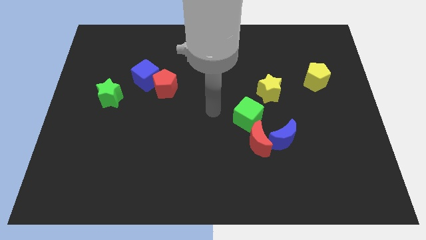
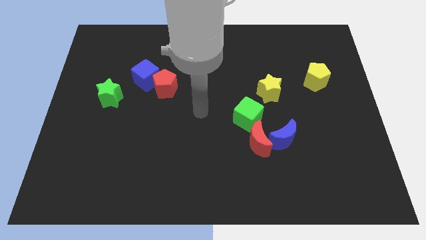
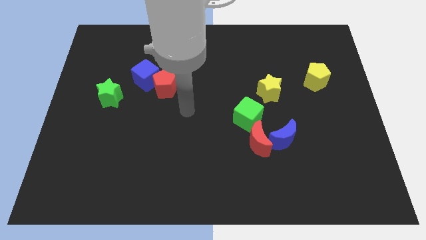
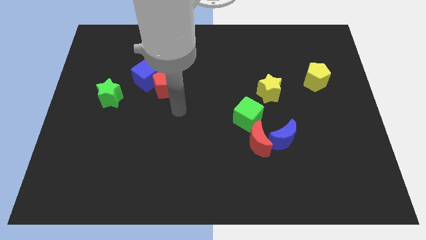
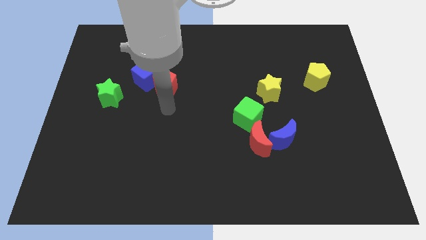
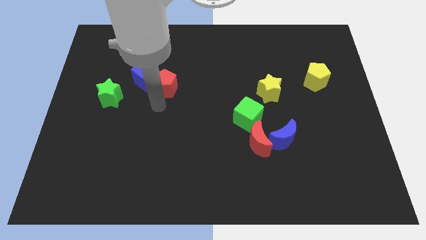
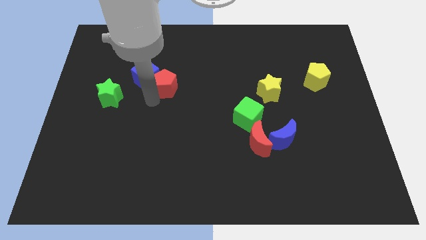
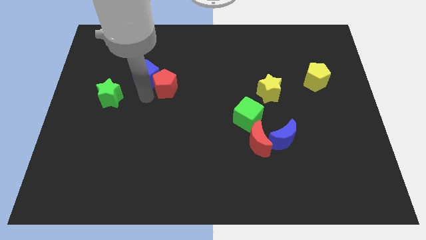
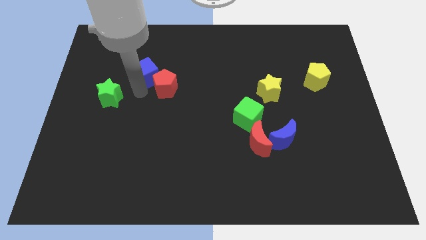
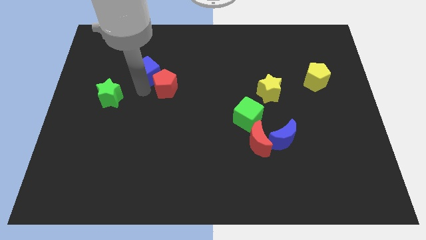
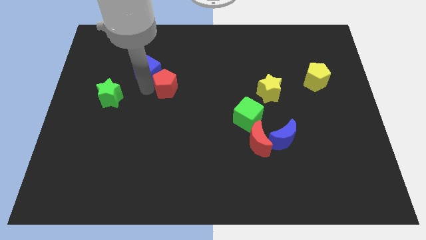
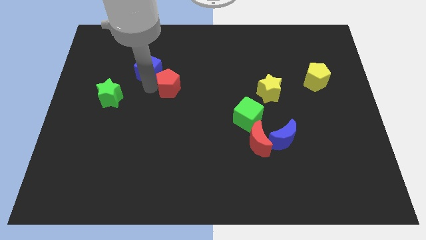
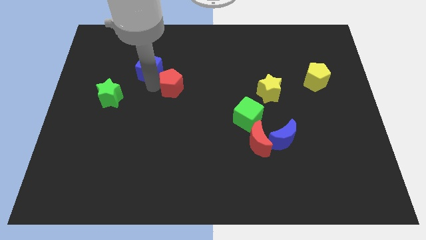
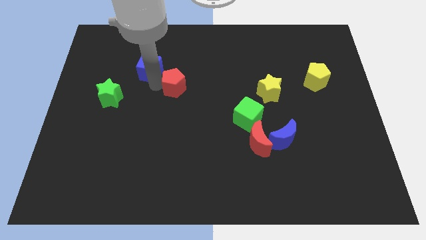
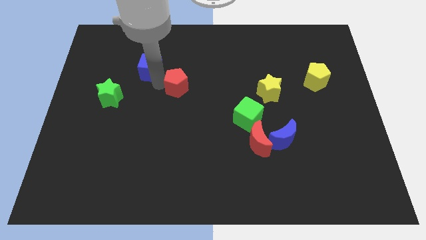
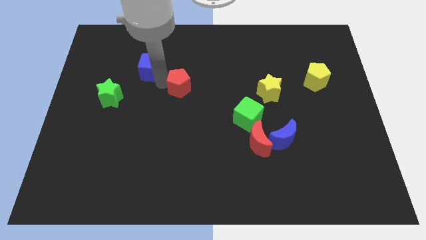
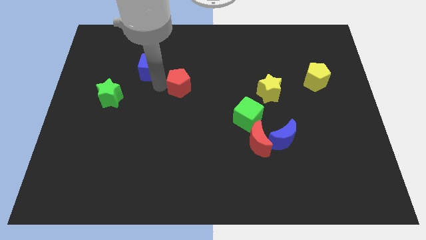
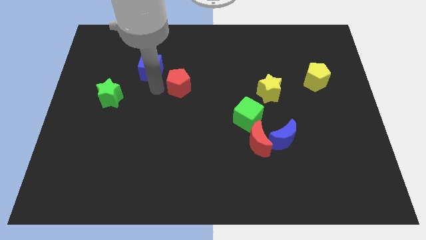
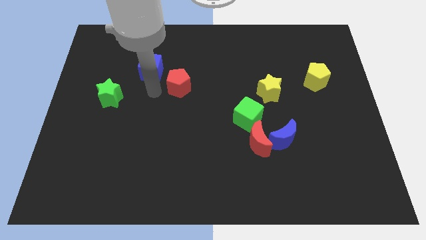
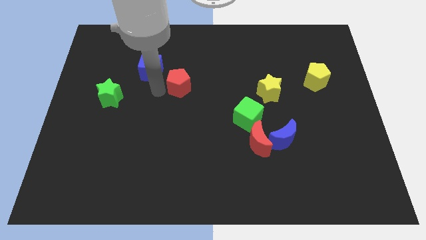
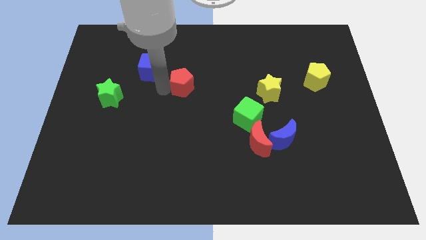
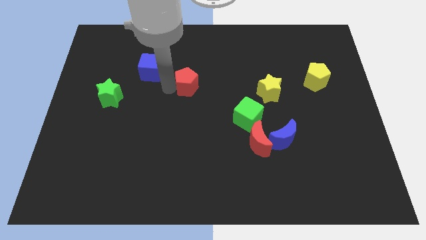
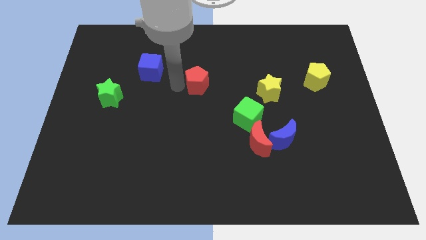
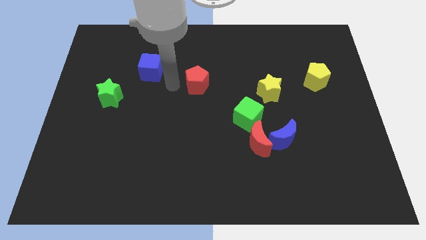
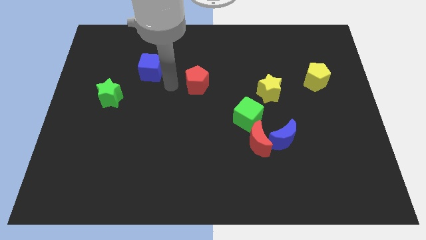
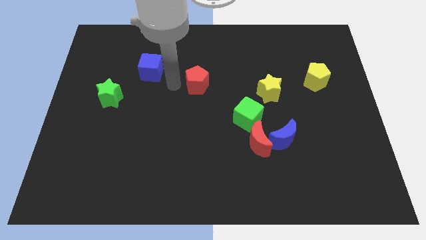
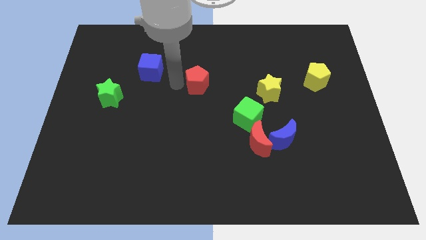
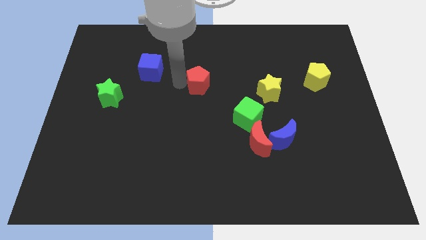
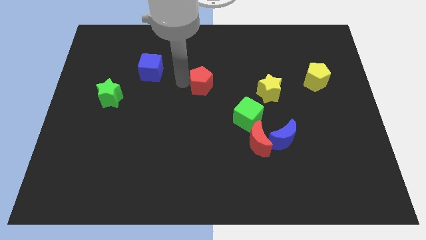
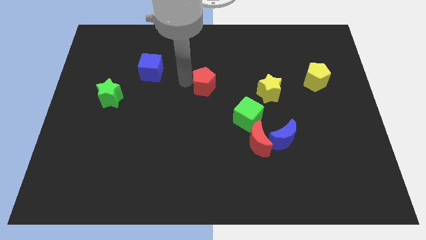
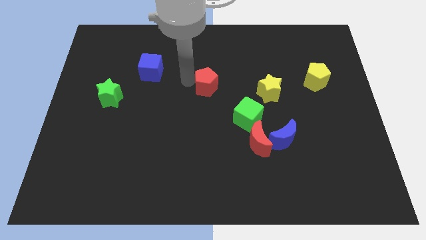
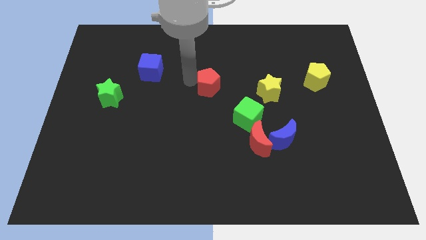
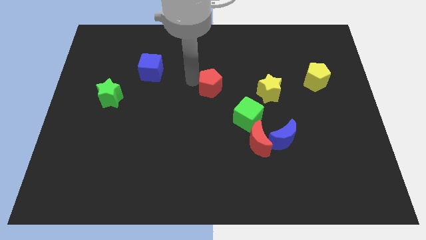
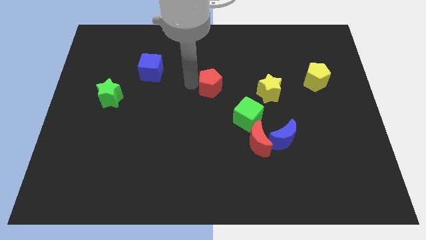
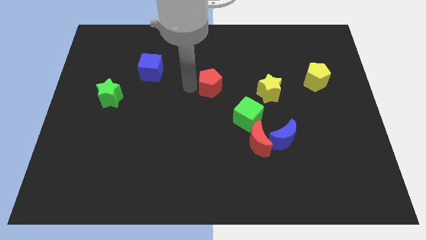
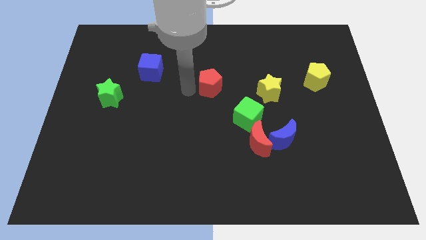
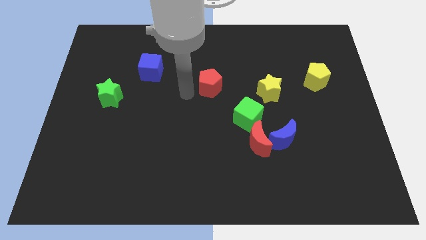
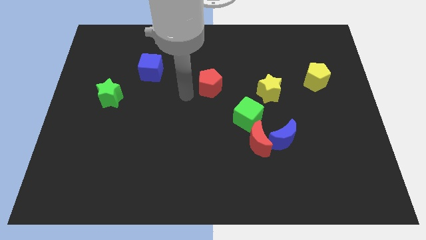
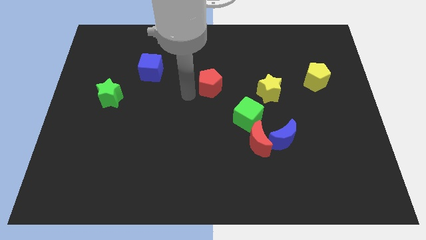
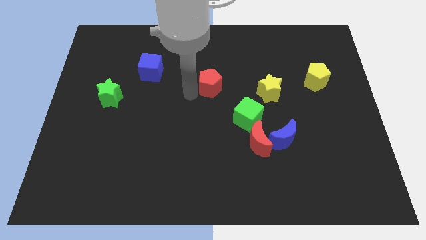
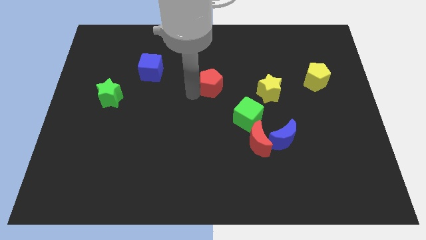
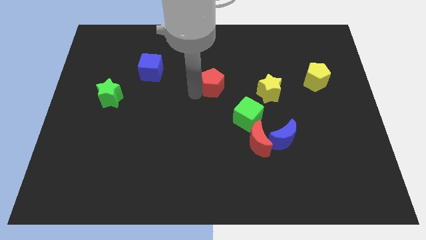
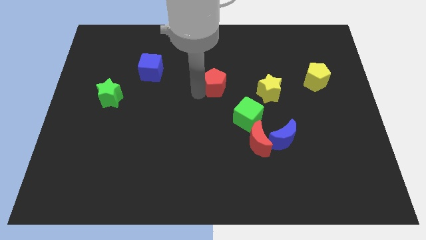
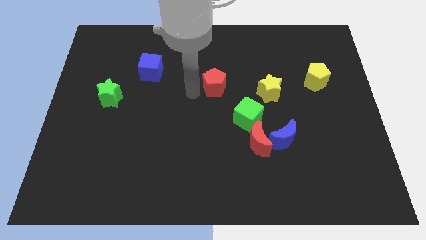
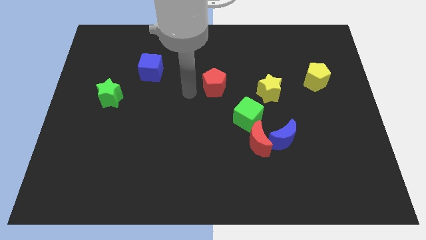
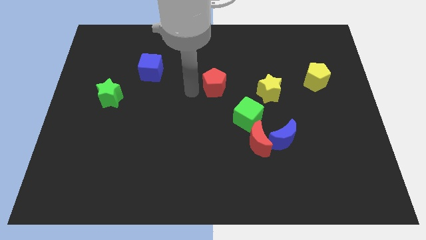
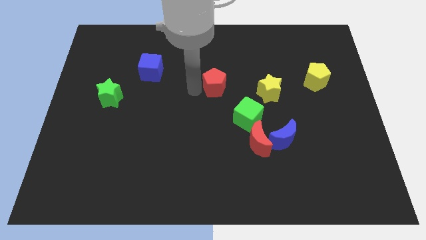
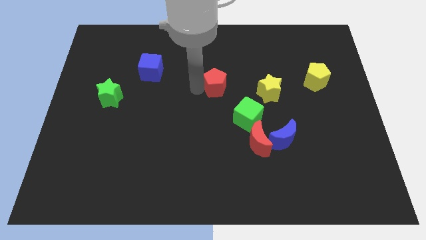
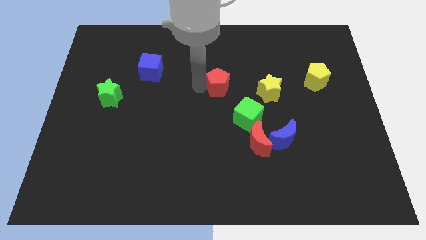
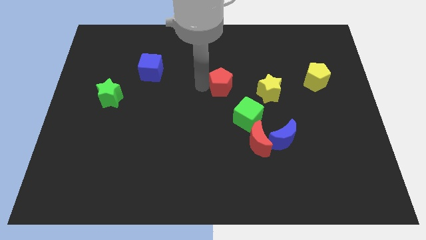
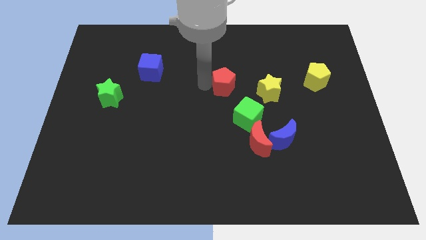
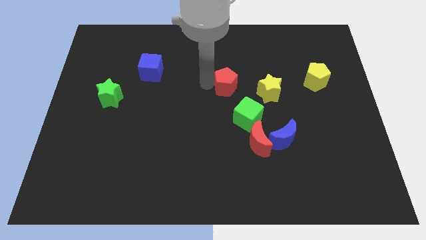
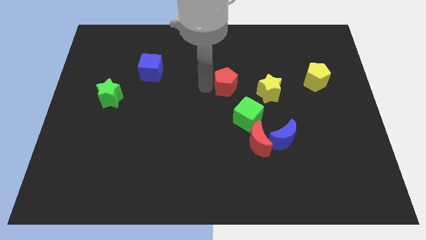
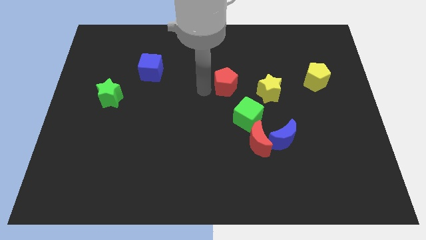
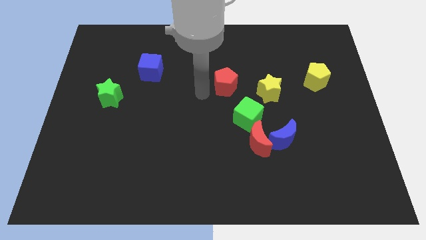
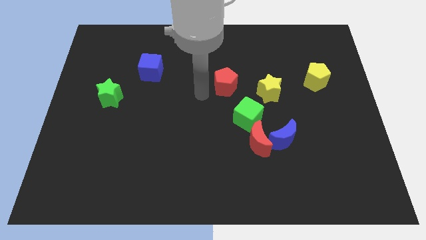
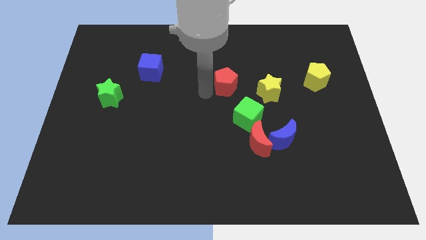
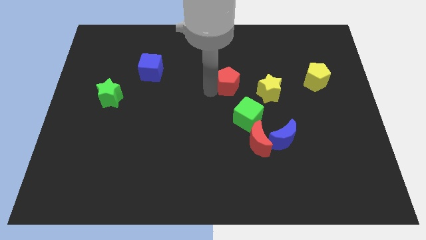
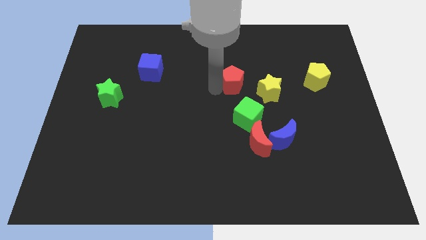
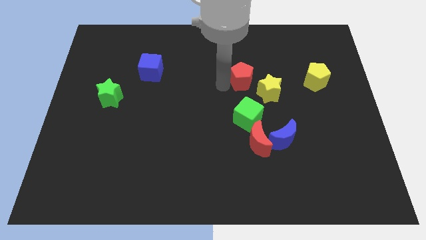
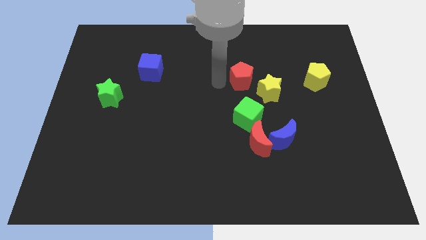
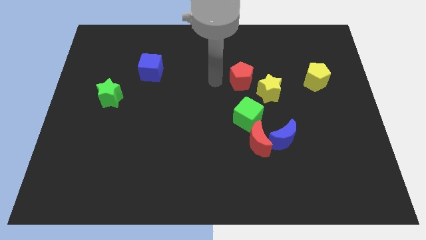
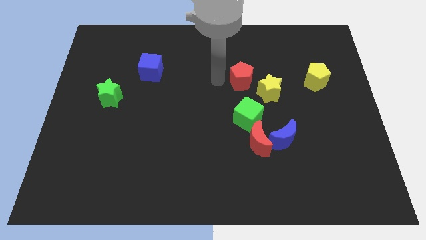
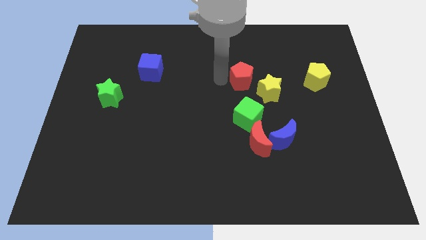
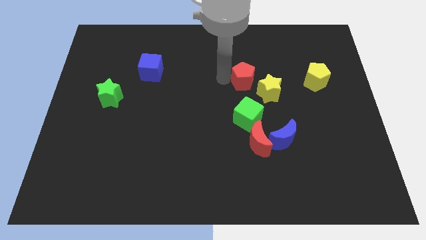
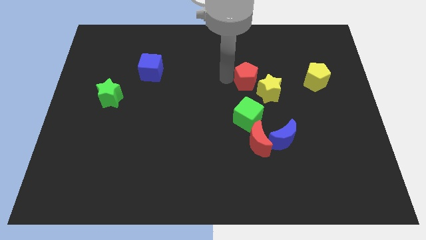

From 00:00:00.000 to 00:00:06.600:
slide the red pentagon to the right

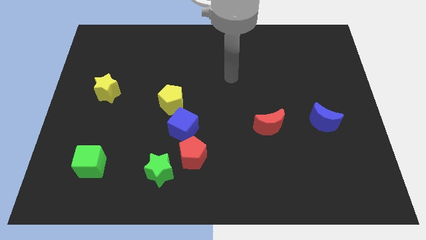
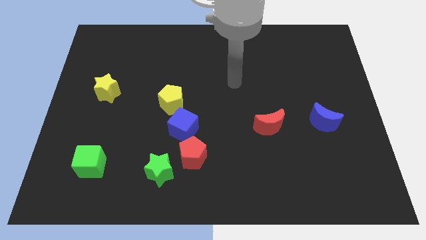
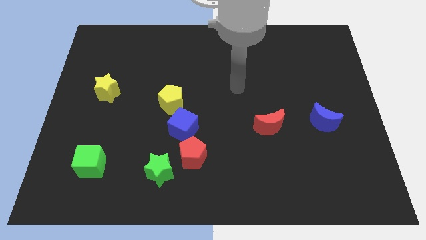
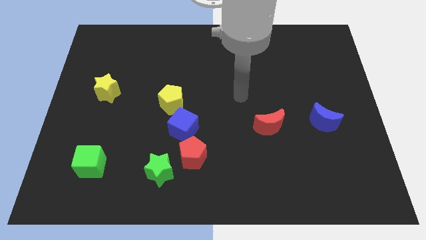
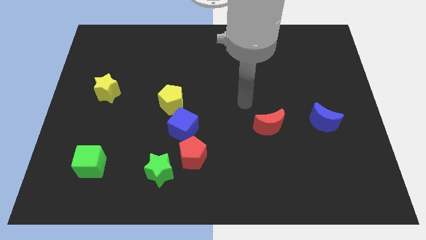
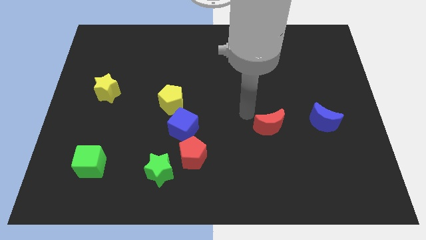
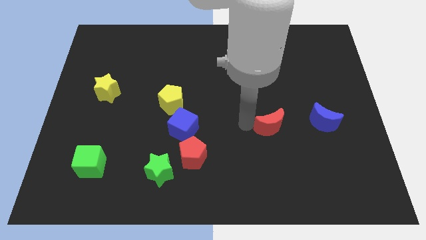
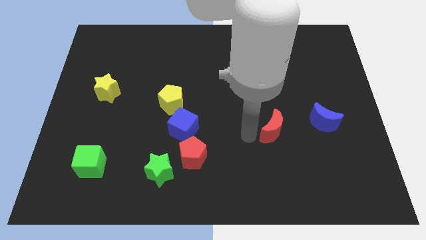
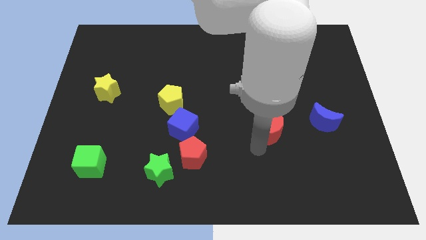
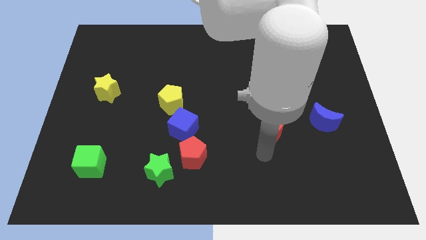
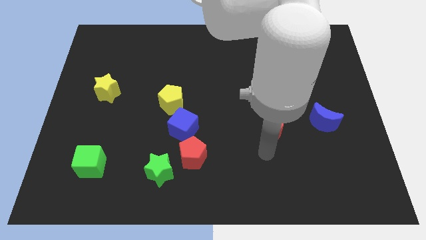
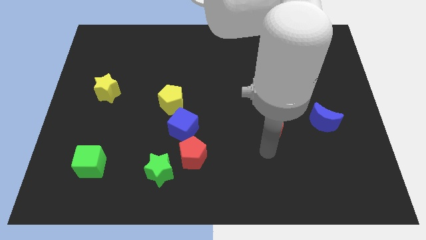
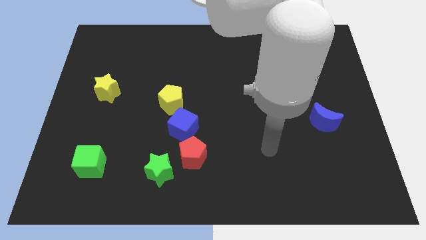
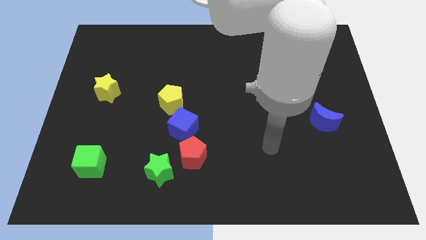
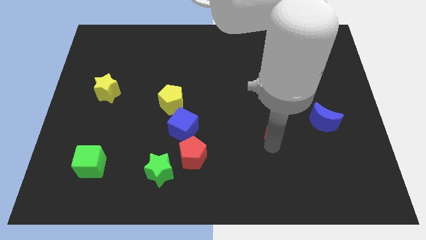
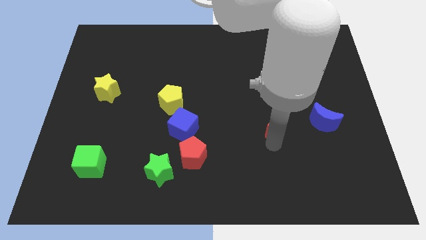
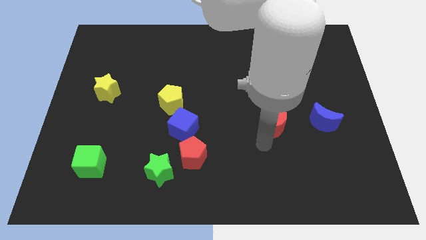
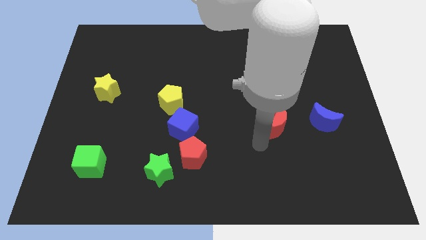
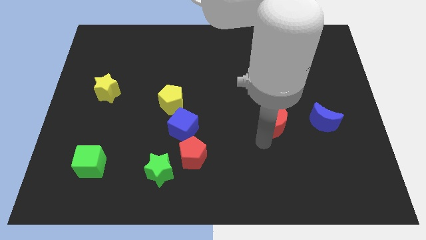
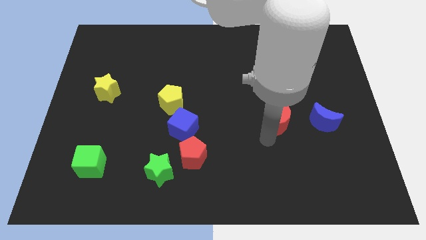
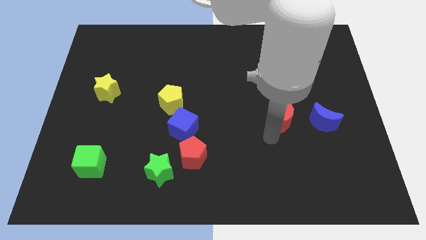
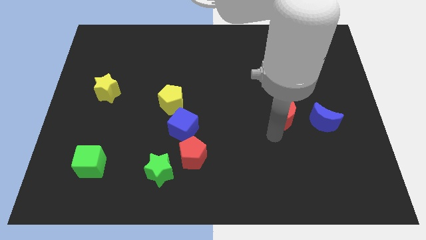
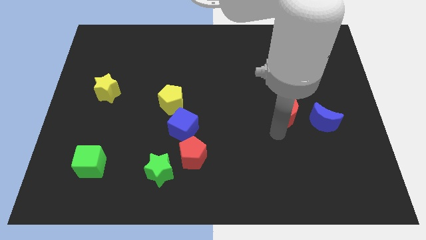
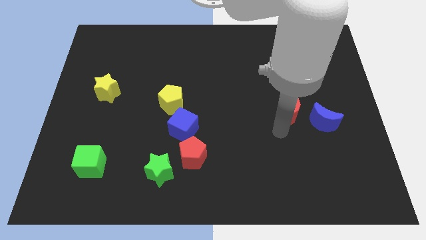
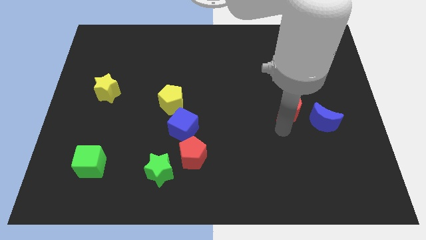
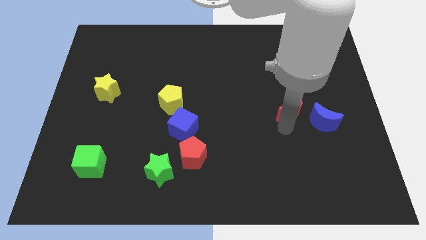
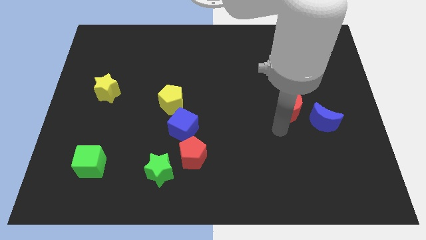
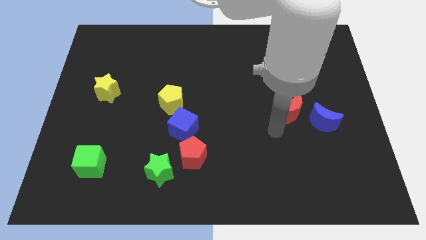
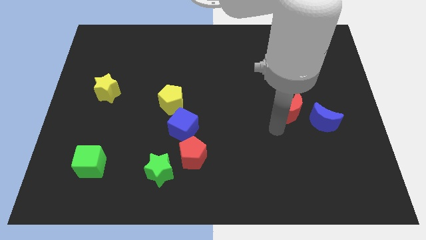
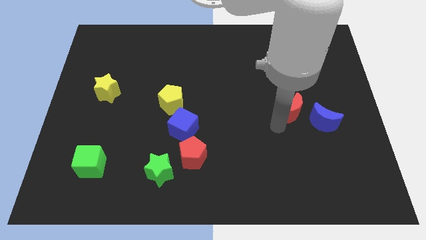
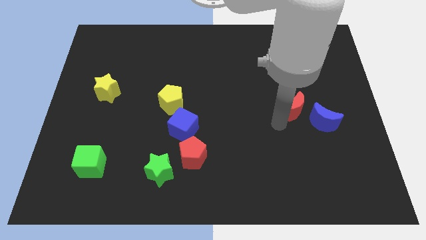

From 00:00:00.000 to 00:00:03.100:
move the red moon somewhat upwards and right
